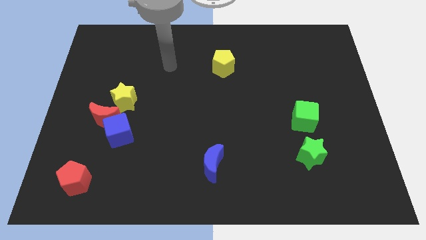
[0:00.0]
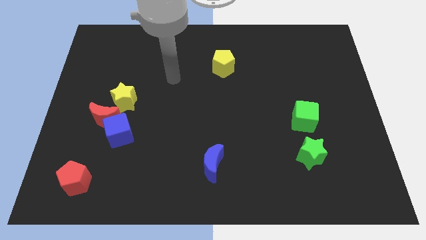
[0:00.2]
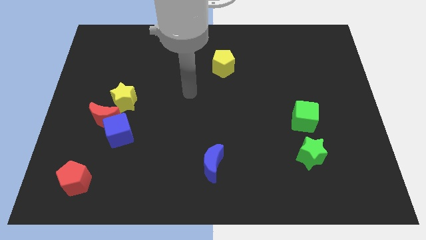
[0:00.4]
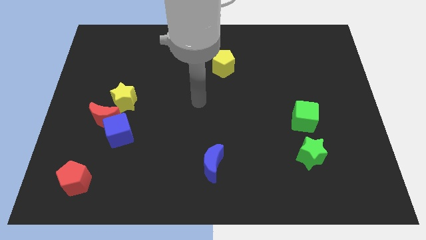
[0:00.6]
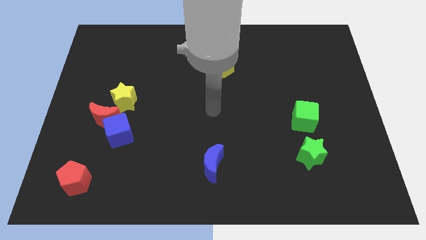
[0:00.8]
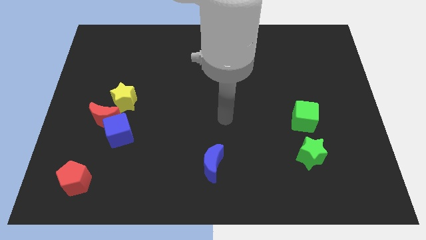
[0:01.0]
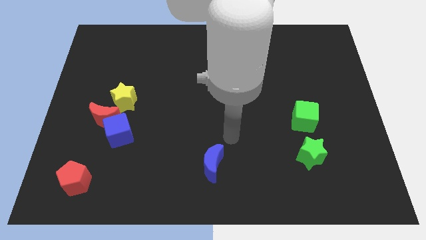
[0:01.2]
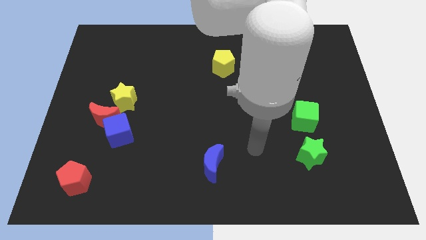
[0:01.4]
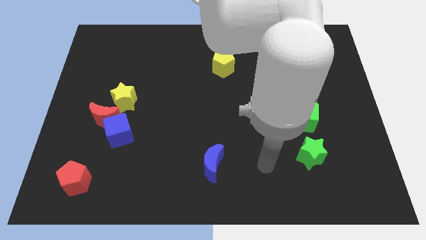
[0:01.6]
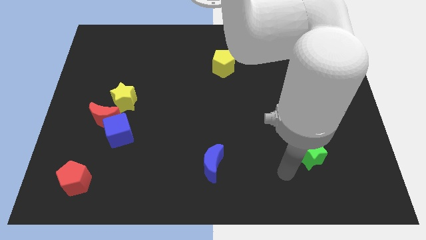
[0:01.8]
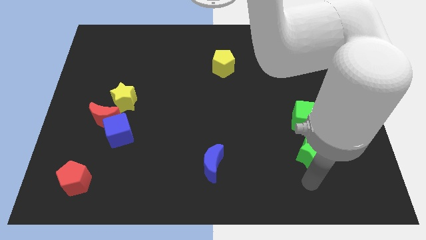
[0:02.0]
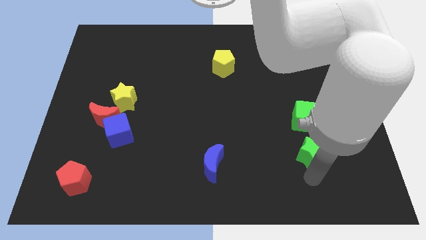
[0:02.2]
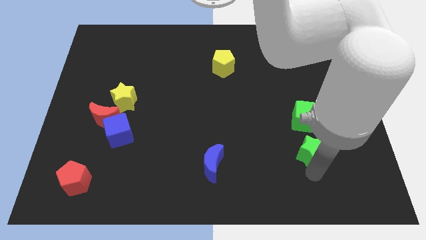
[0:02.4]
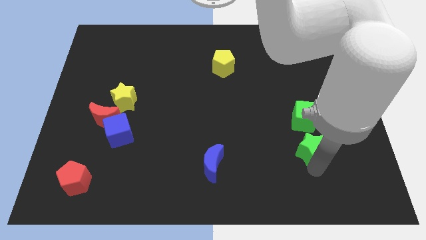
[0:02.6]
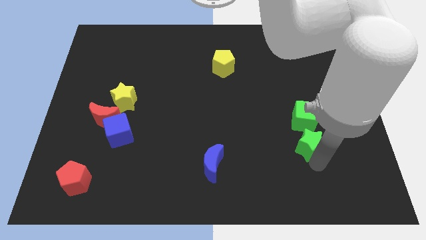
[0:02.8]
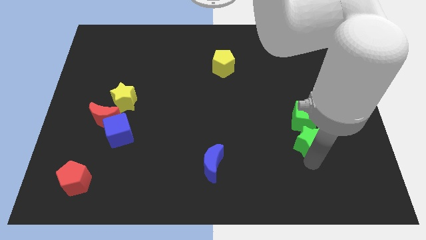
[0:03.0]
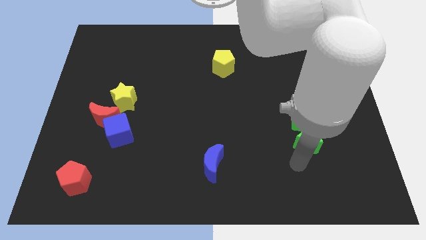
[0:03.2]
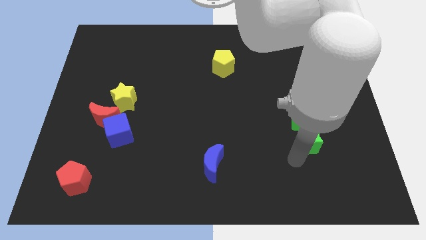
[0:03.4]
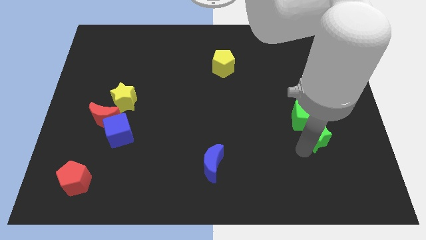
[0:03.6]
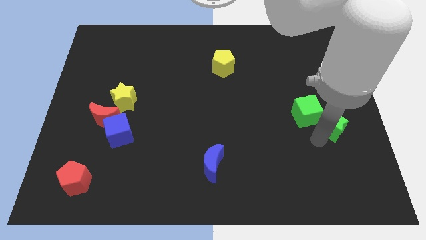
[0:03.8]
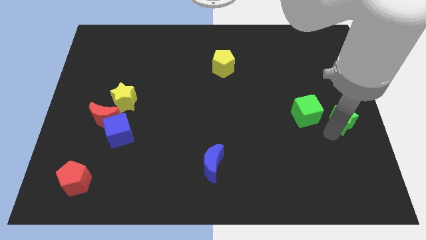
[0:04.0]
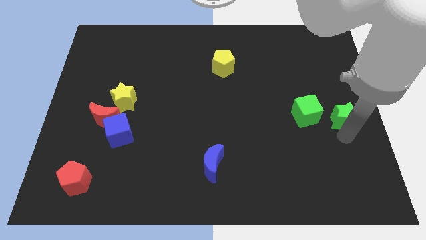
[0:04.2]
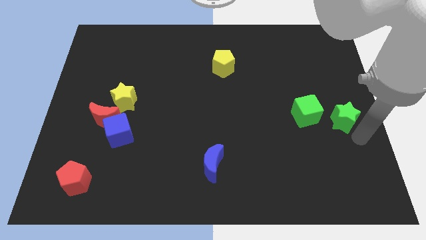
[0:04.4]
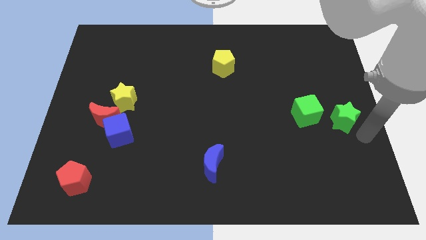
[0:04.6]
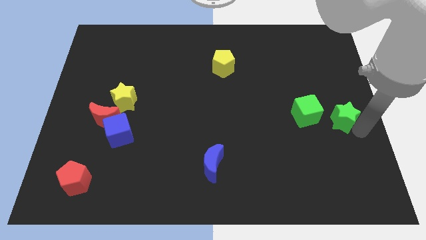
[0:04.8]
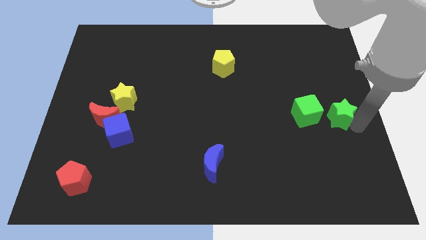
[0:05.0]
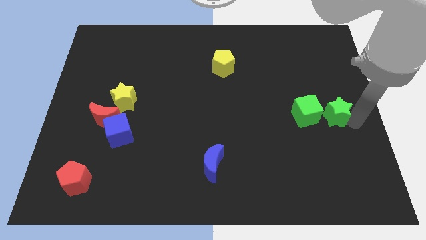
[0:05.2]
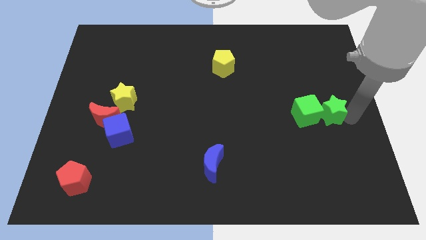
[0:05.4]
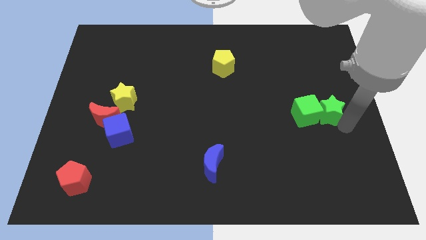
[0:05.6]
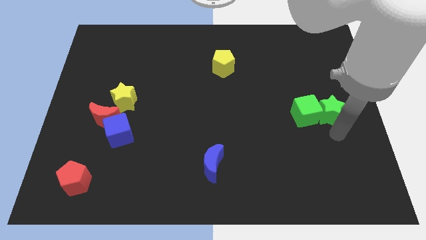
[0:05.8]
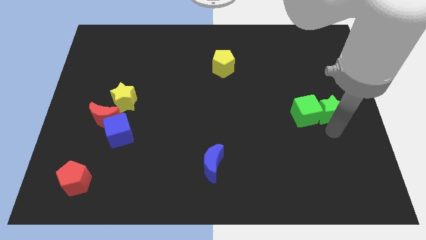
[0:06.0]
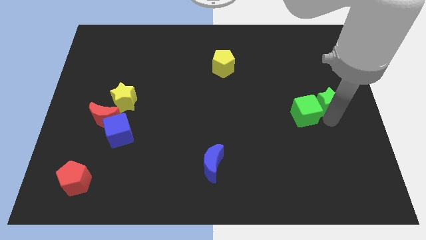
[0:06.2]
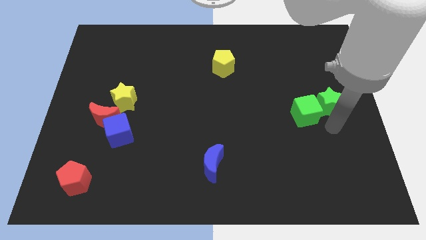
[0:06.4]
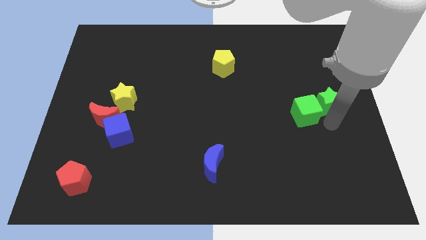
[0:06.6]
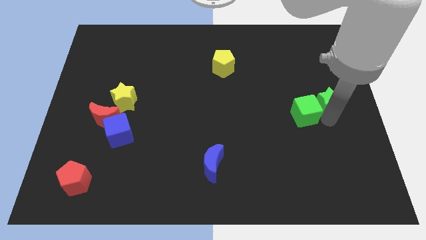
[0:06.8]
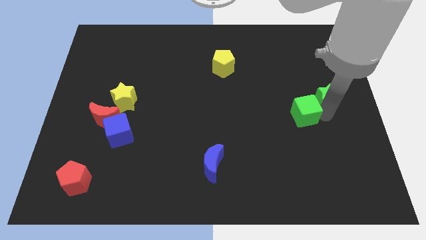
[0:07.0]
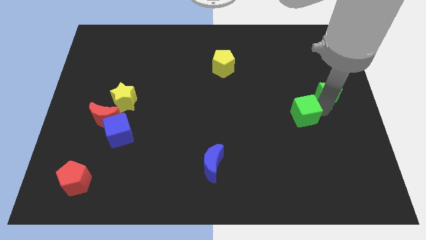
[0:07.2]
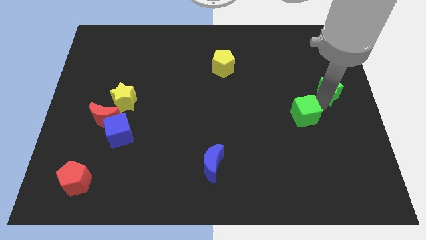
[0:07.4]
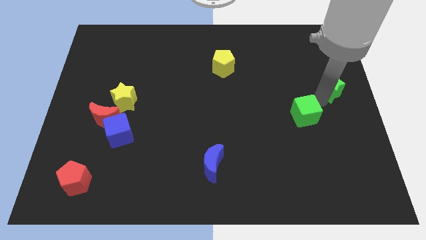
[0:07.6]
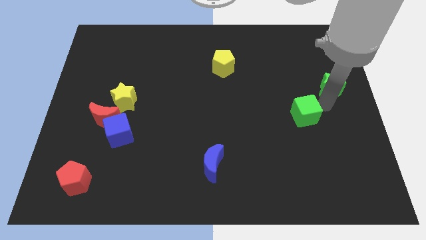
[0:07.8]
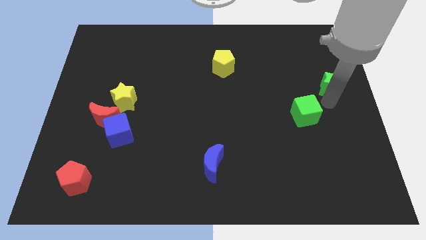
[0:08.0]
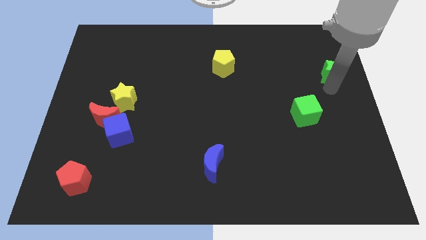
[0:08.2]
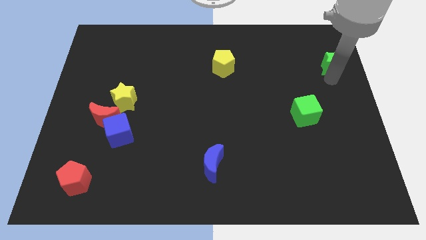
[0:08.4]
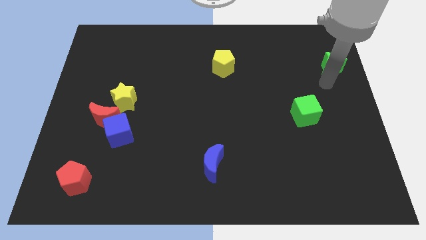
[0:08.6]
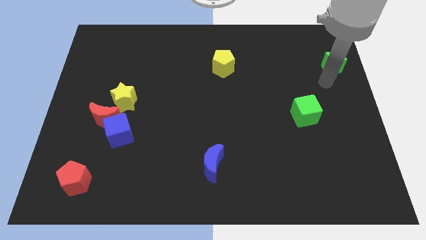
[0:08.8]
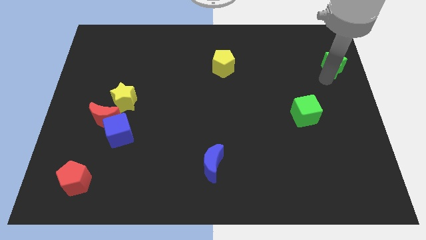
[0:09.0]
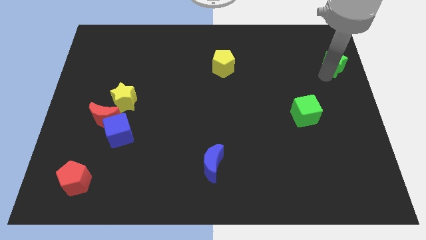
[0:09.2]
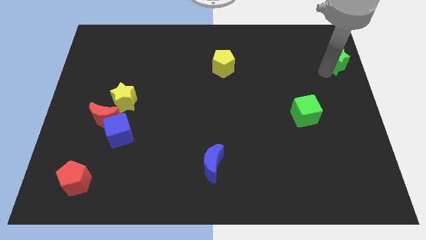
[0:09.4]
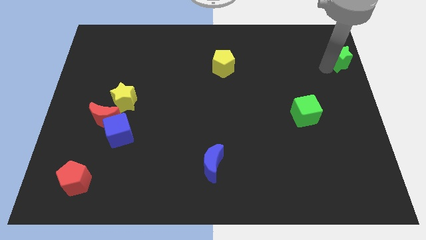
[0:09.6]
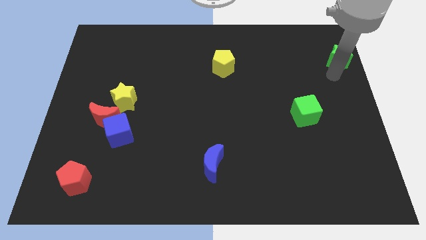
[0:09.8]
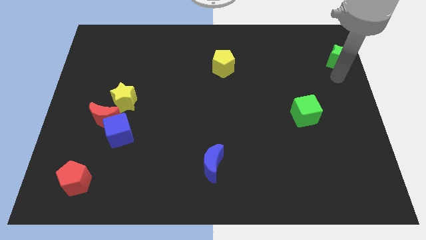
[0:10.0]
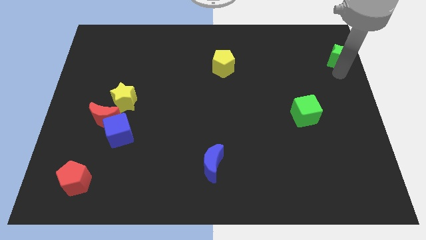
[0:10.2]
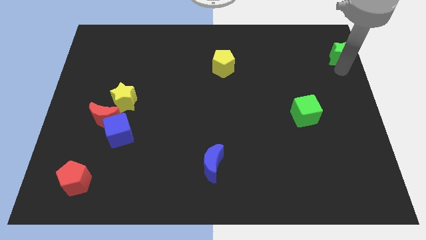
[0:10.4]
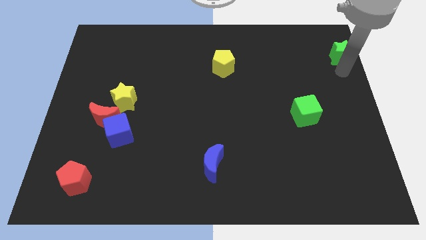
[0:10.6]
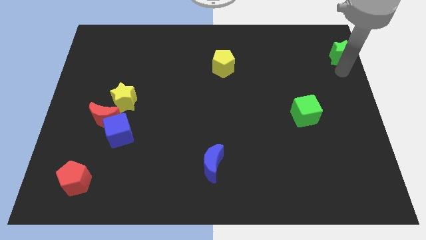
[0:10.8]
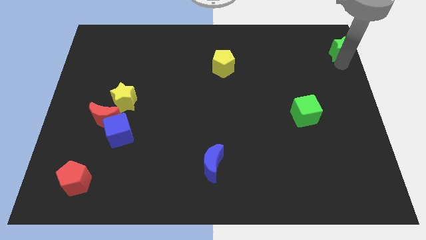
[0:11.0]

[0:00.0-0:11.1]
move the green star to the upper right corner

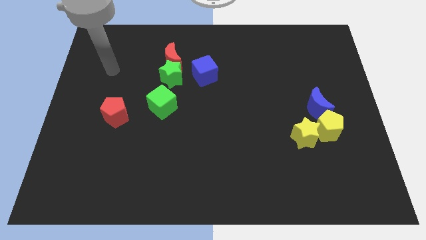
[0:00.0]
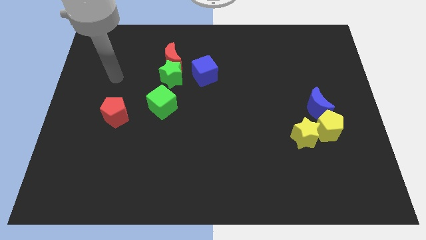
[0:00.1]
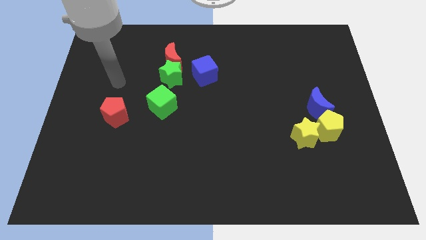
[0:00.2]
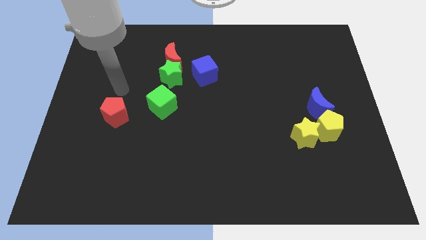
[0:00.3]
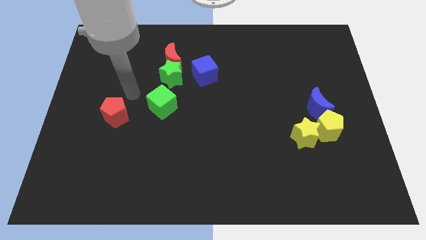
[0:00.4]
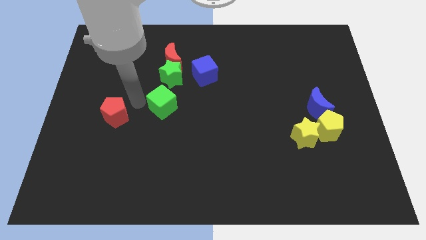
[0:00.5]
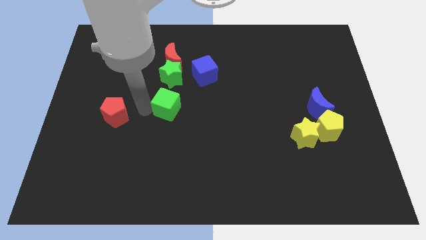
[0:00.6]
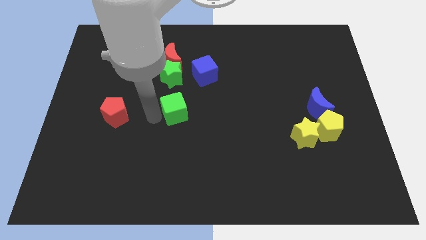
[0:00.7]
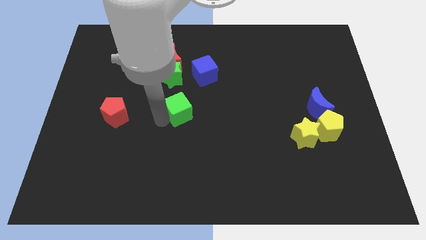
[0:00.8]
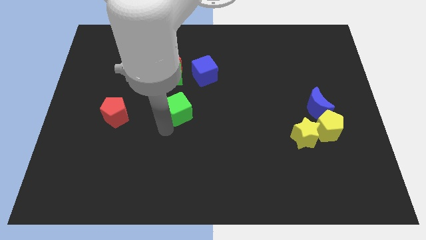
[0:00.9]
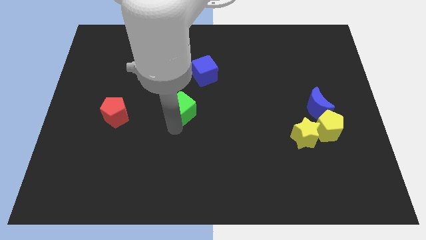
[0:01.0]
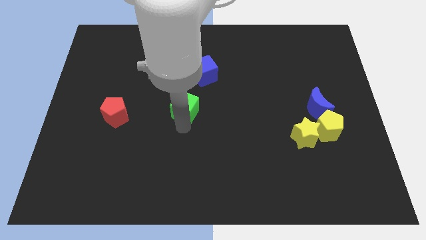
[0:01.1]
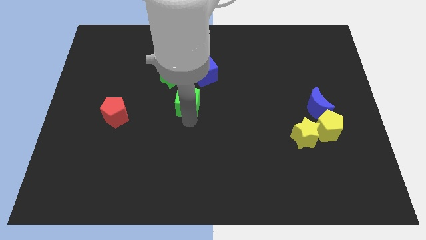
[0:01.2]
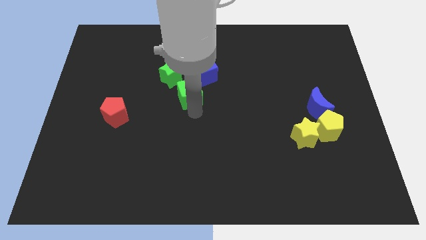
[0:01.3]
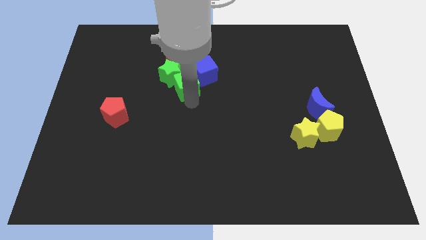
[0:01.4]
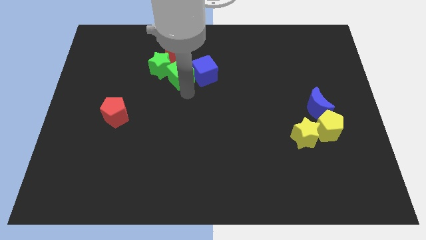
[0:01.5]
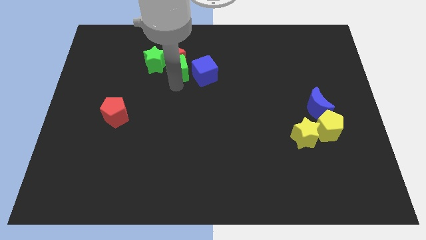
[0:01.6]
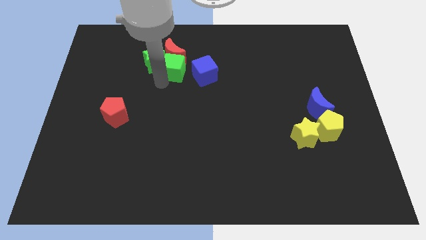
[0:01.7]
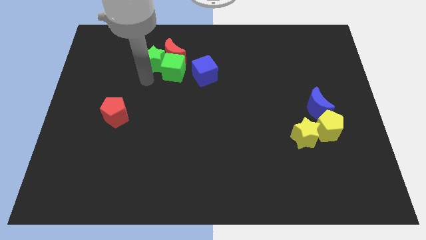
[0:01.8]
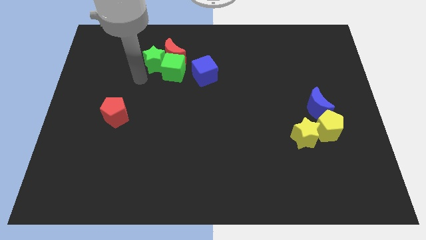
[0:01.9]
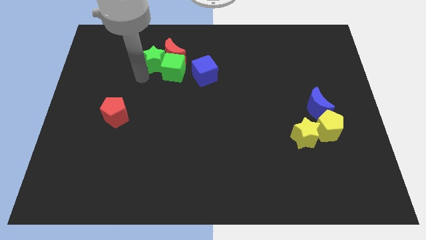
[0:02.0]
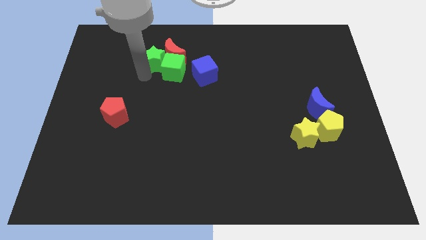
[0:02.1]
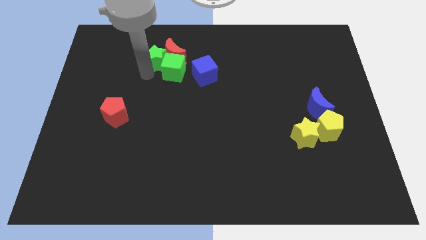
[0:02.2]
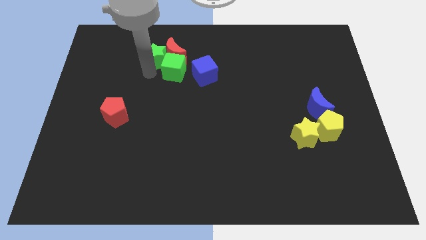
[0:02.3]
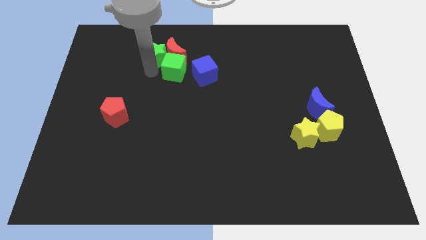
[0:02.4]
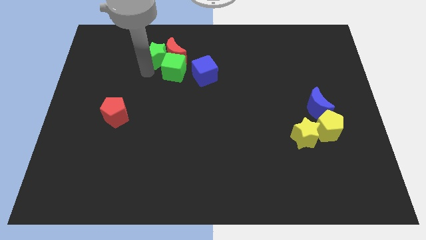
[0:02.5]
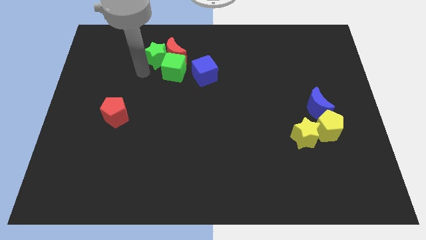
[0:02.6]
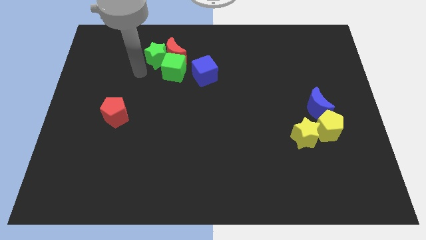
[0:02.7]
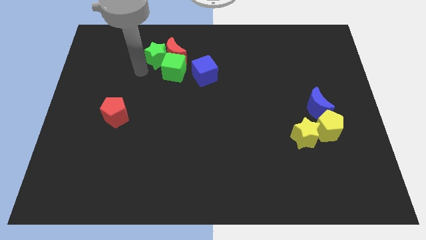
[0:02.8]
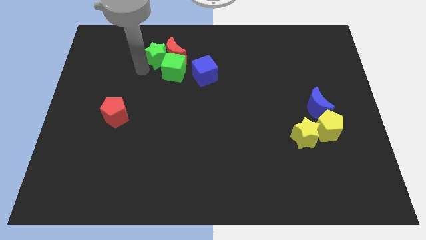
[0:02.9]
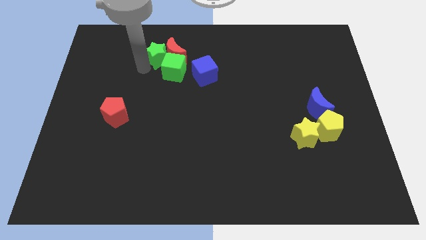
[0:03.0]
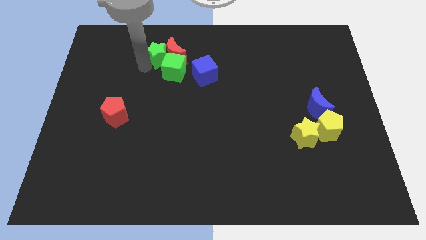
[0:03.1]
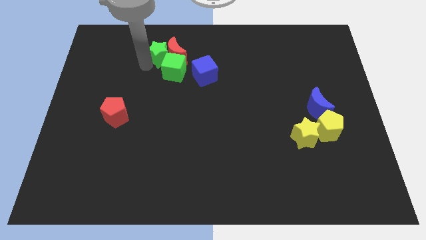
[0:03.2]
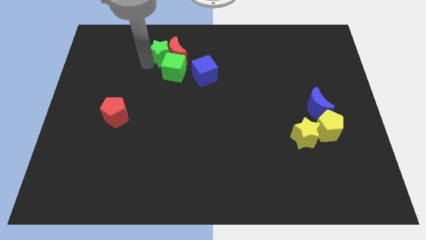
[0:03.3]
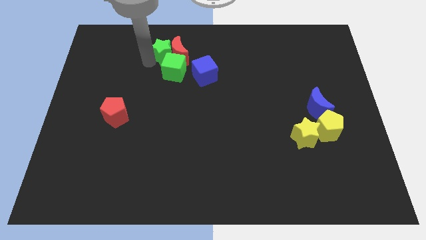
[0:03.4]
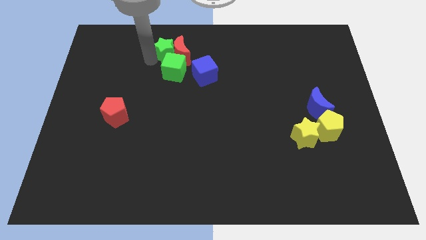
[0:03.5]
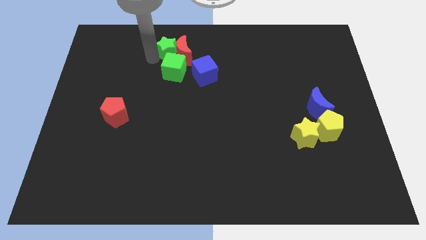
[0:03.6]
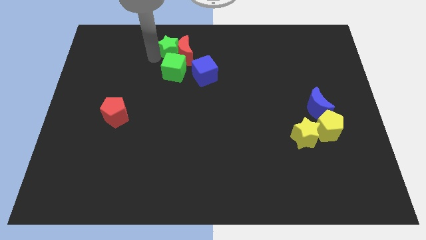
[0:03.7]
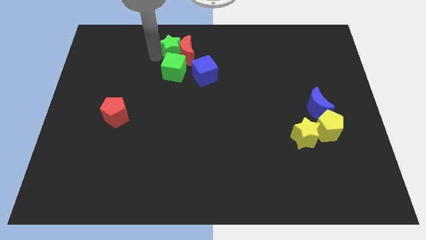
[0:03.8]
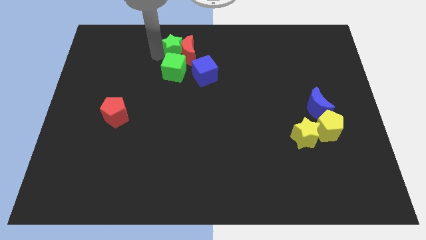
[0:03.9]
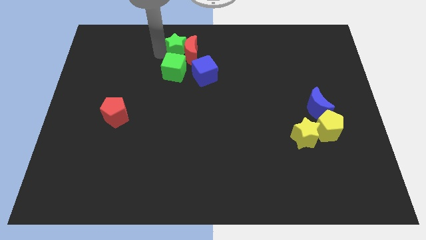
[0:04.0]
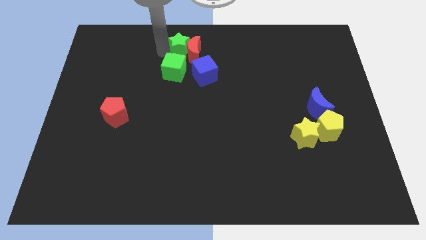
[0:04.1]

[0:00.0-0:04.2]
slide the green star to the top
